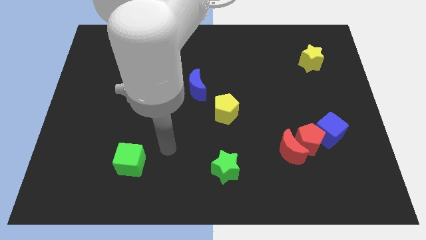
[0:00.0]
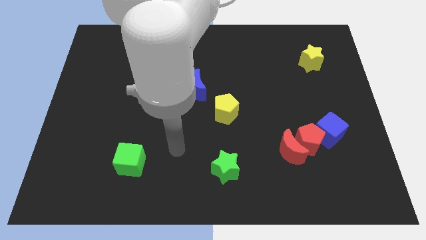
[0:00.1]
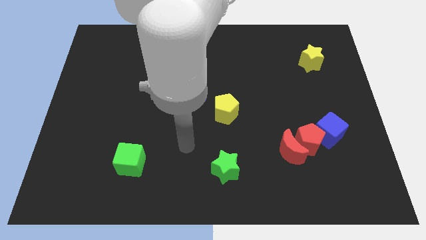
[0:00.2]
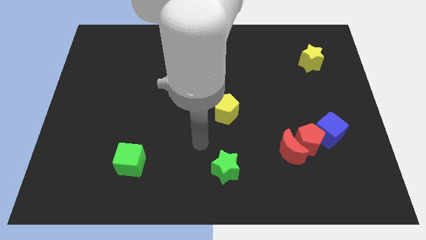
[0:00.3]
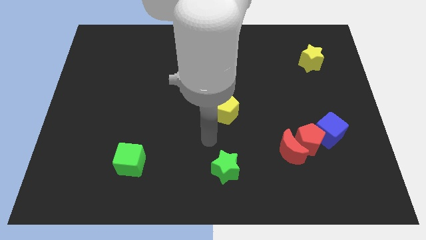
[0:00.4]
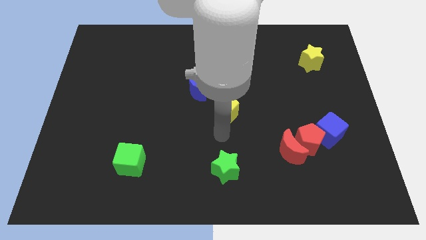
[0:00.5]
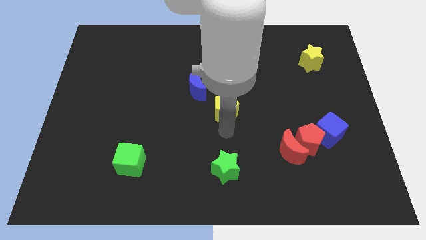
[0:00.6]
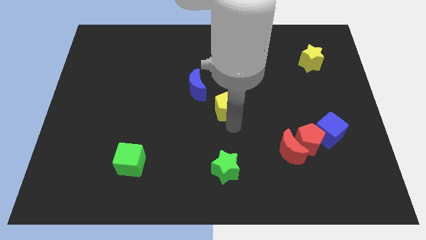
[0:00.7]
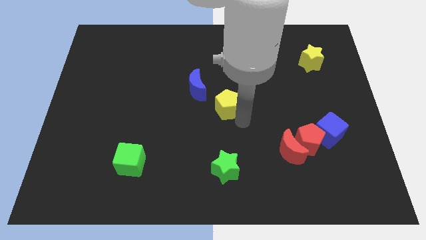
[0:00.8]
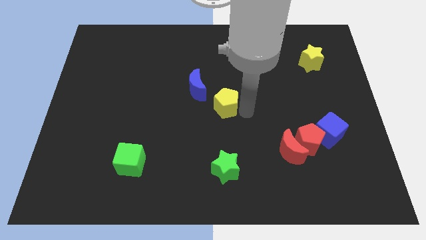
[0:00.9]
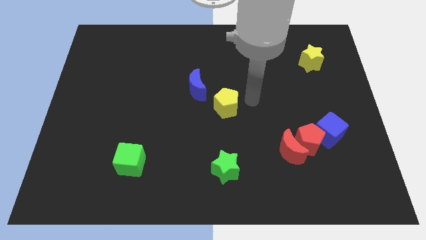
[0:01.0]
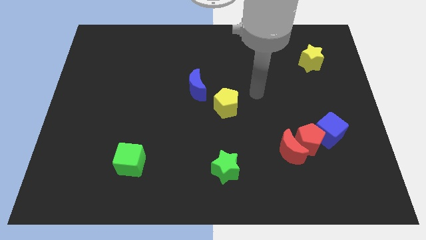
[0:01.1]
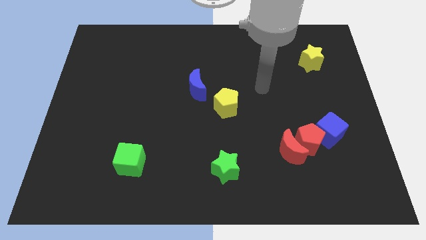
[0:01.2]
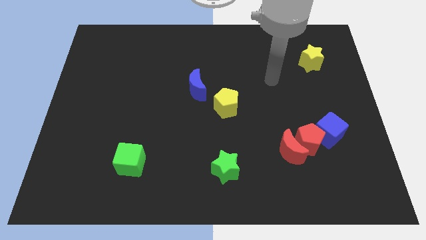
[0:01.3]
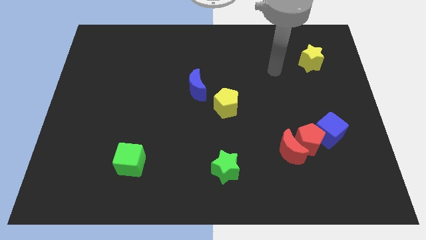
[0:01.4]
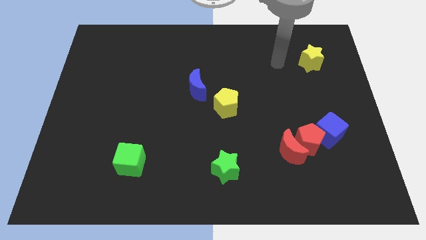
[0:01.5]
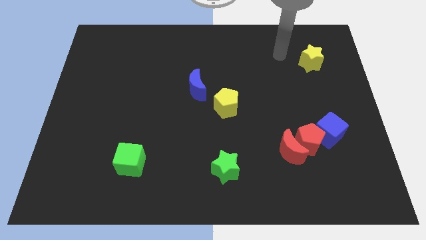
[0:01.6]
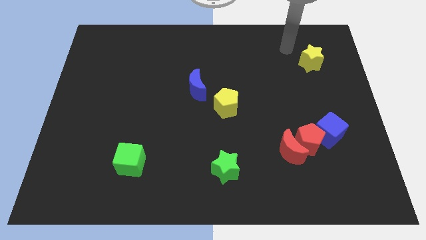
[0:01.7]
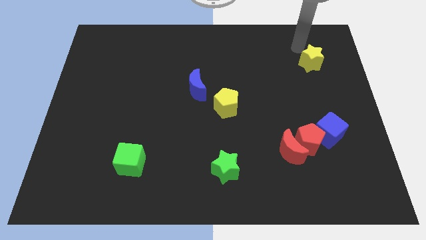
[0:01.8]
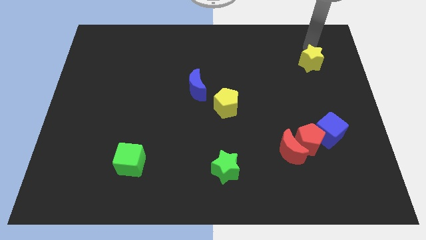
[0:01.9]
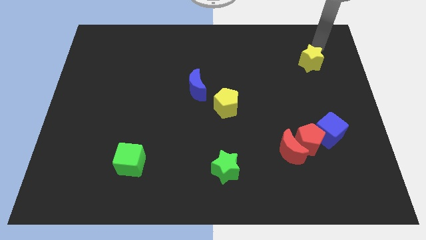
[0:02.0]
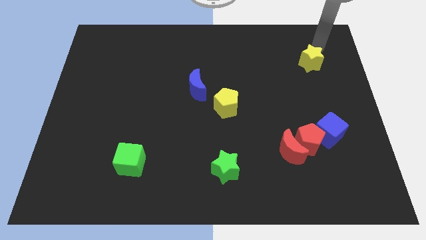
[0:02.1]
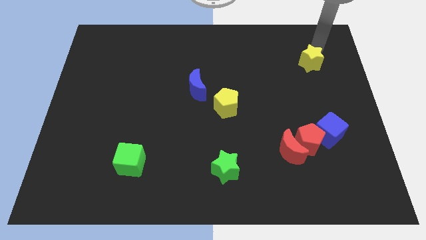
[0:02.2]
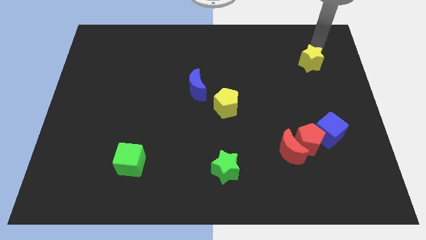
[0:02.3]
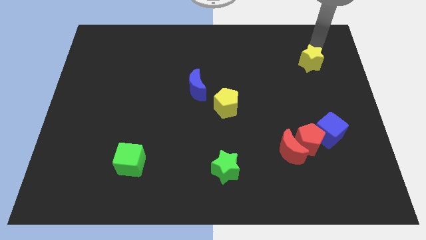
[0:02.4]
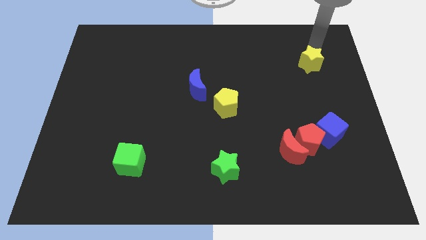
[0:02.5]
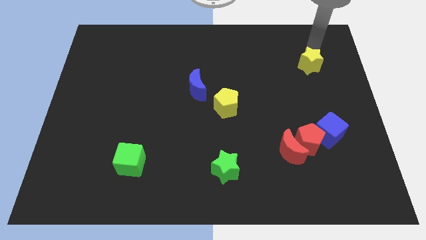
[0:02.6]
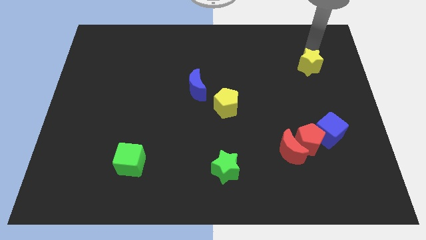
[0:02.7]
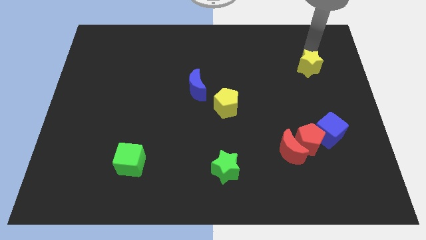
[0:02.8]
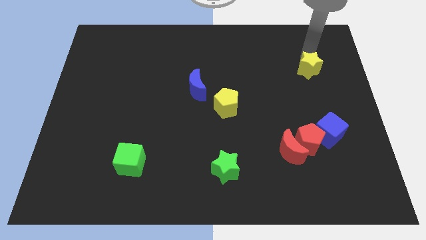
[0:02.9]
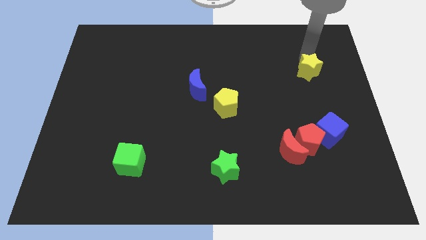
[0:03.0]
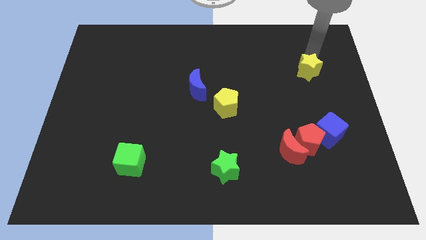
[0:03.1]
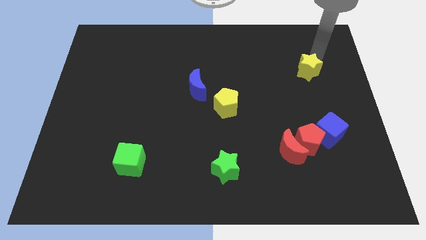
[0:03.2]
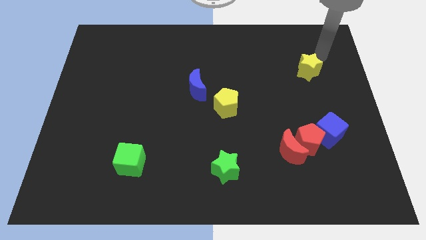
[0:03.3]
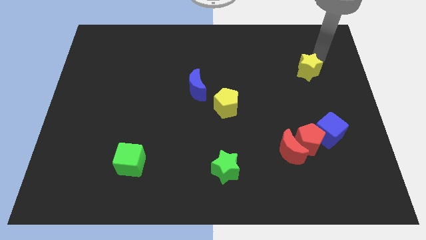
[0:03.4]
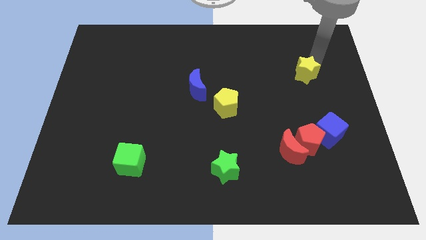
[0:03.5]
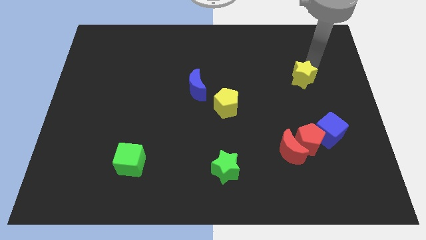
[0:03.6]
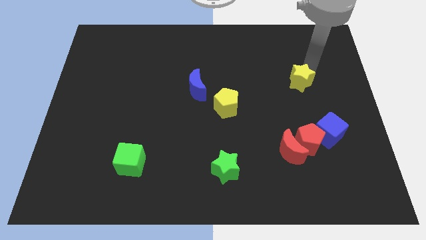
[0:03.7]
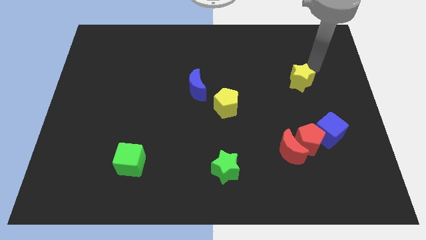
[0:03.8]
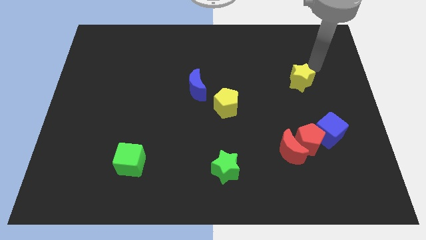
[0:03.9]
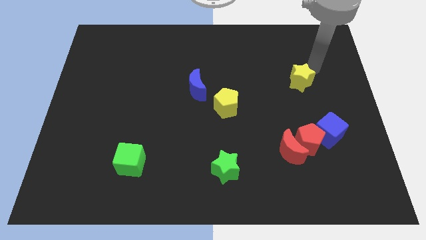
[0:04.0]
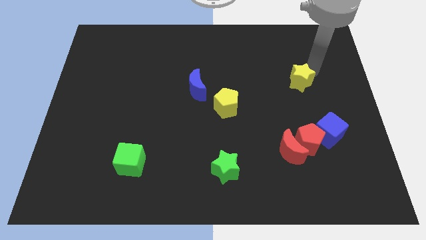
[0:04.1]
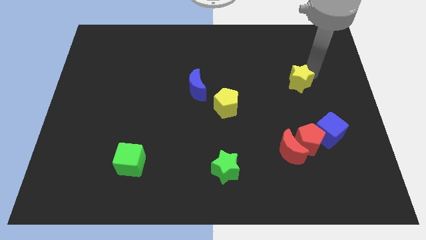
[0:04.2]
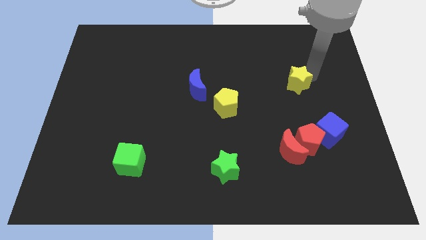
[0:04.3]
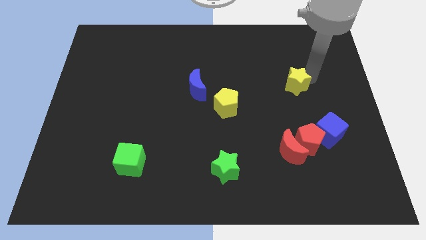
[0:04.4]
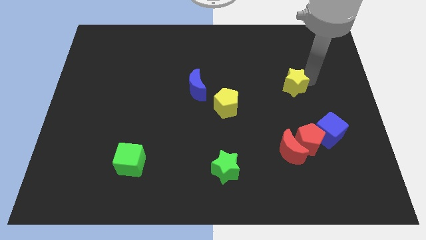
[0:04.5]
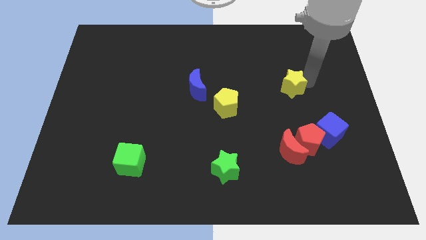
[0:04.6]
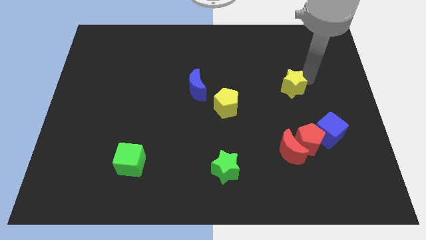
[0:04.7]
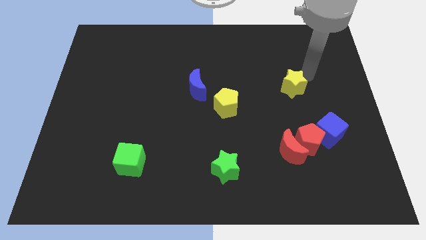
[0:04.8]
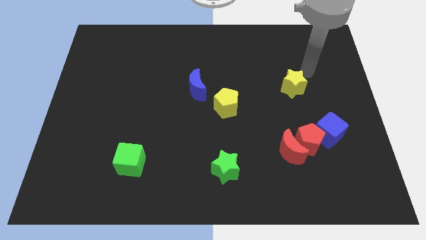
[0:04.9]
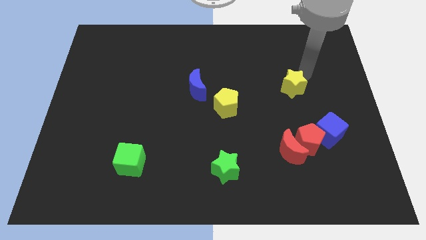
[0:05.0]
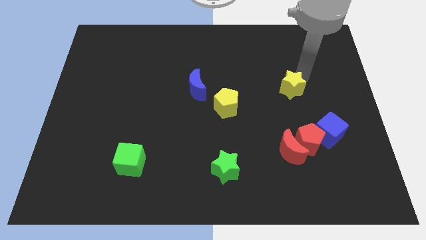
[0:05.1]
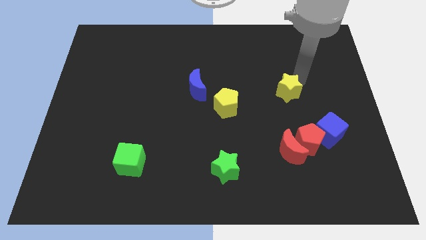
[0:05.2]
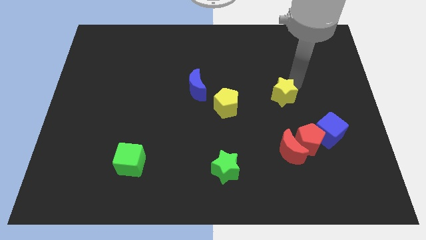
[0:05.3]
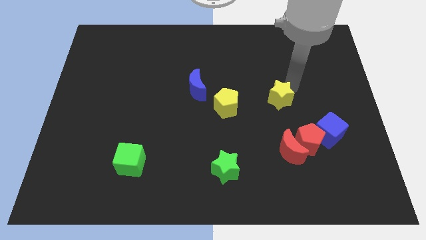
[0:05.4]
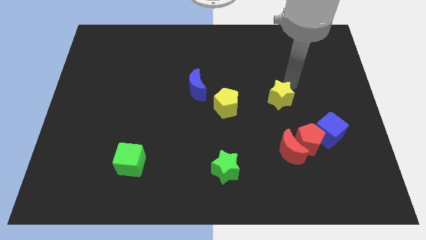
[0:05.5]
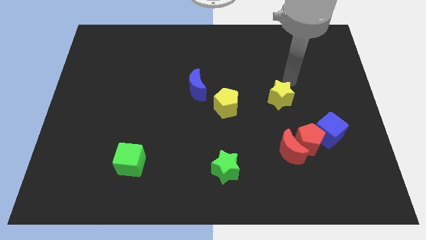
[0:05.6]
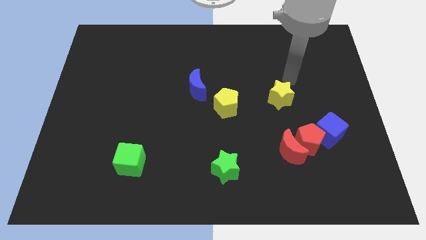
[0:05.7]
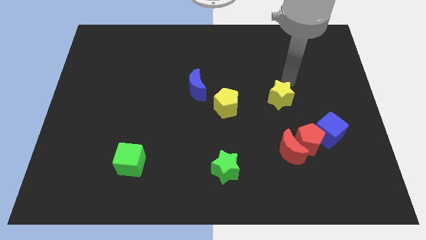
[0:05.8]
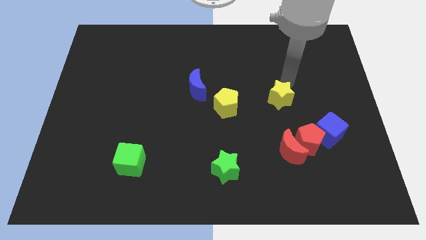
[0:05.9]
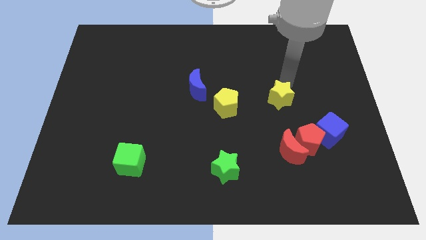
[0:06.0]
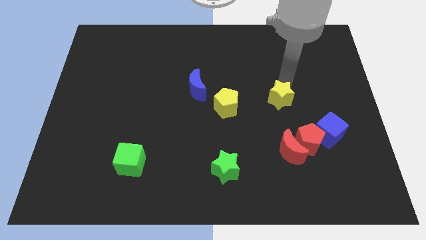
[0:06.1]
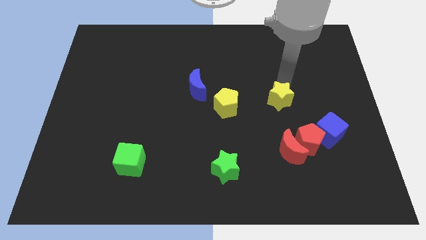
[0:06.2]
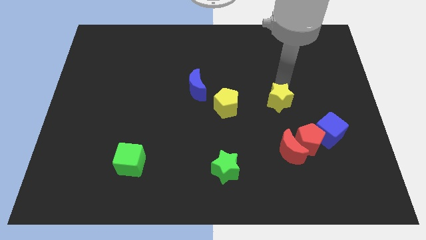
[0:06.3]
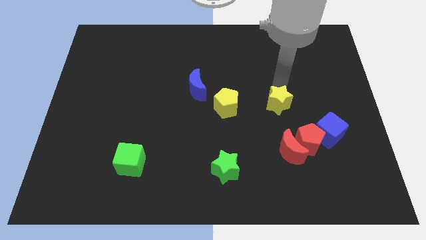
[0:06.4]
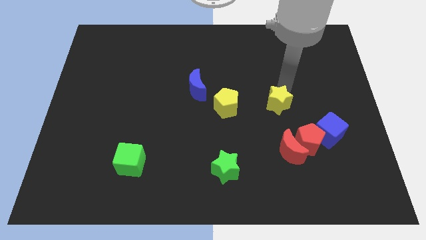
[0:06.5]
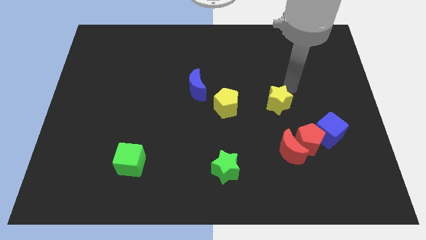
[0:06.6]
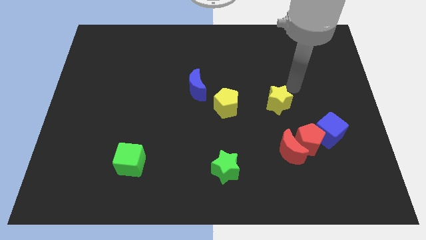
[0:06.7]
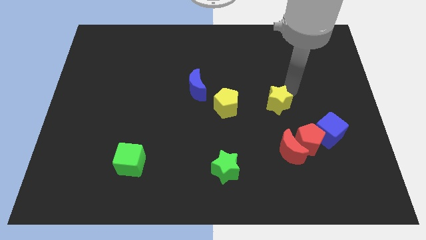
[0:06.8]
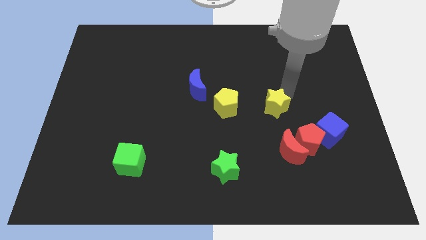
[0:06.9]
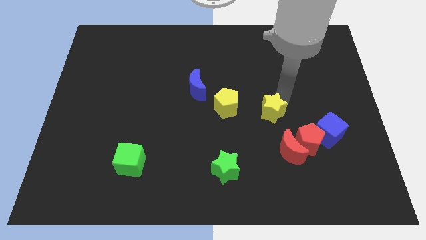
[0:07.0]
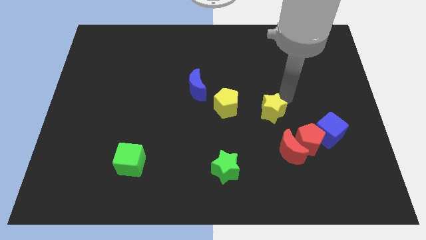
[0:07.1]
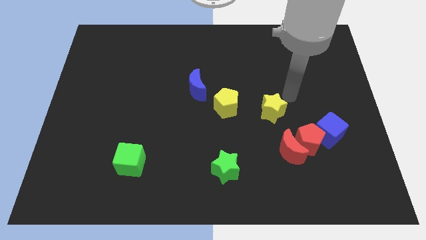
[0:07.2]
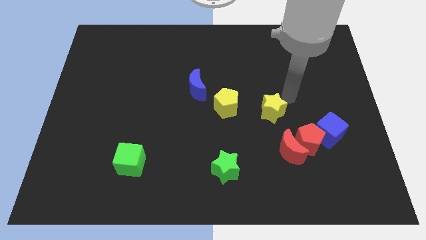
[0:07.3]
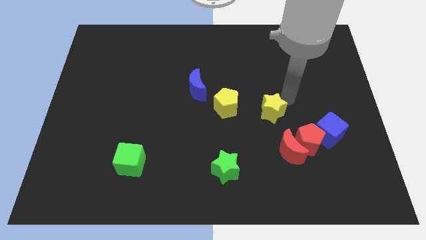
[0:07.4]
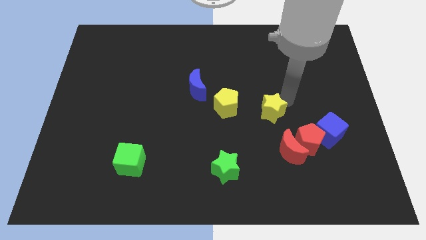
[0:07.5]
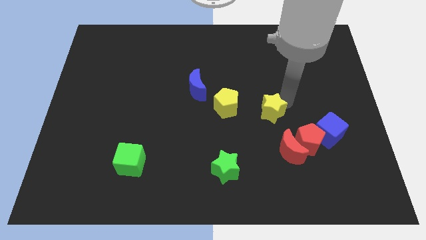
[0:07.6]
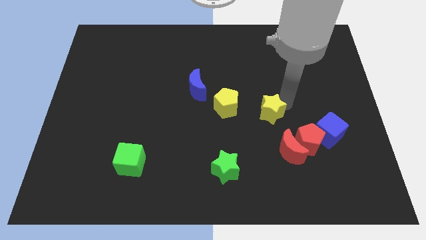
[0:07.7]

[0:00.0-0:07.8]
slide the yellow star down and left diagonally
